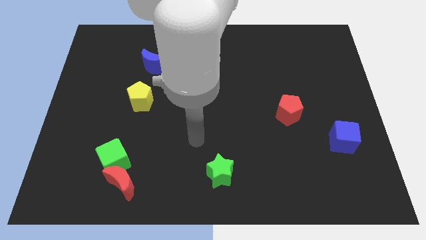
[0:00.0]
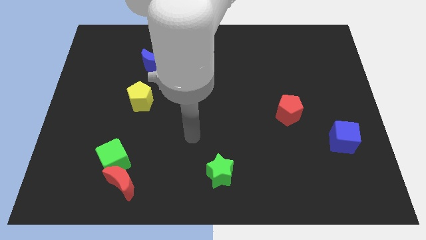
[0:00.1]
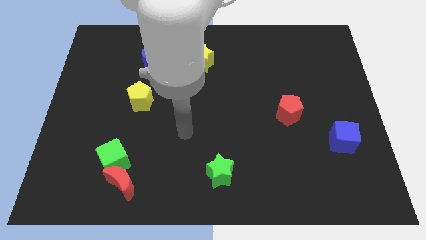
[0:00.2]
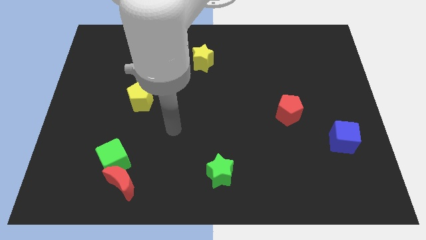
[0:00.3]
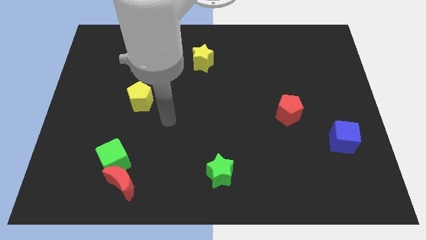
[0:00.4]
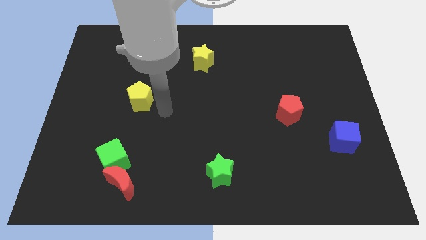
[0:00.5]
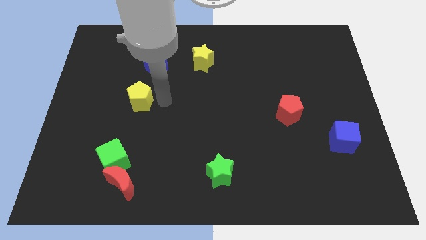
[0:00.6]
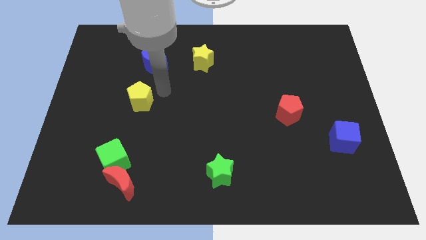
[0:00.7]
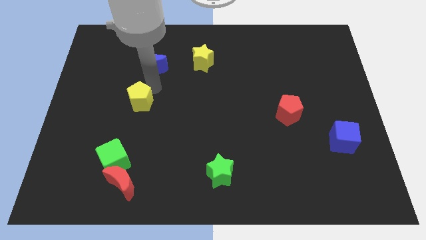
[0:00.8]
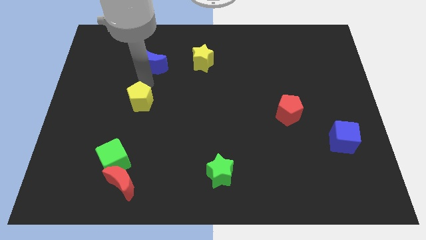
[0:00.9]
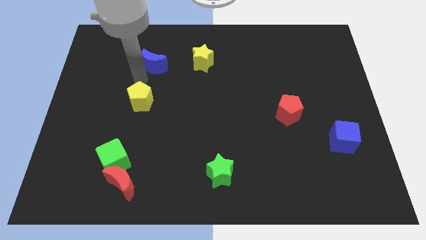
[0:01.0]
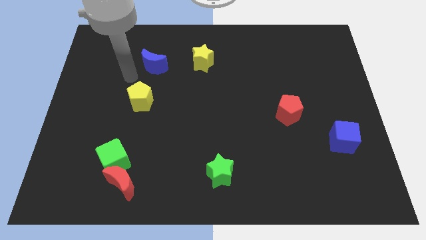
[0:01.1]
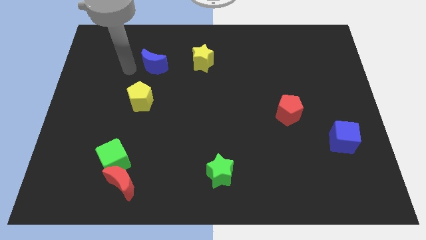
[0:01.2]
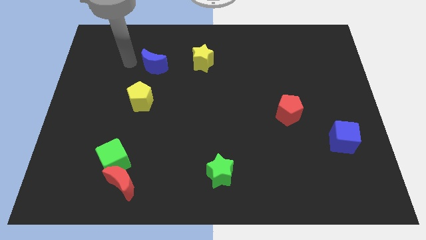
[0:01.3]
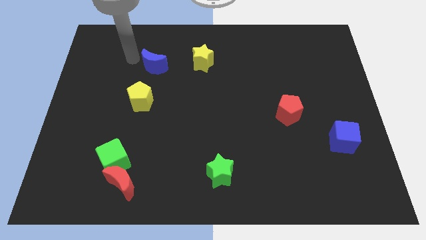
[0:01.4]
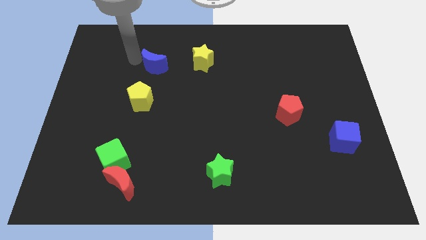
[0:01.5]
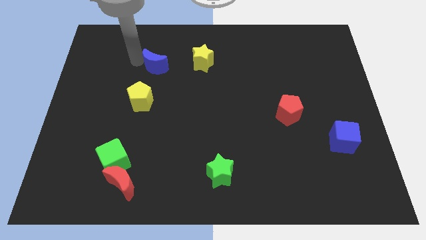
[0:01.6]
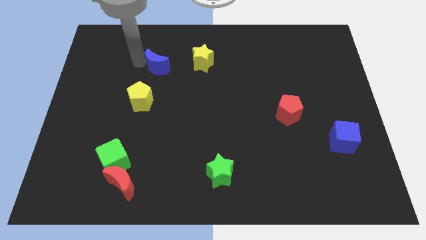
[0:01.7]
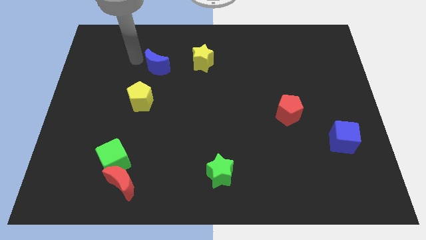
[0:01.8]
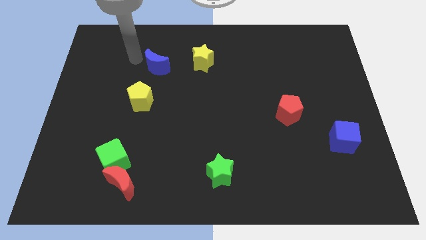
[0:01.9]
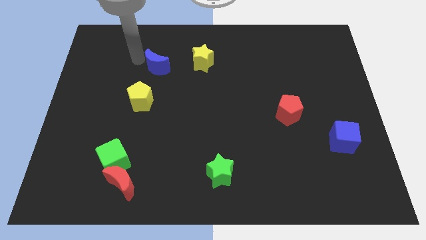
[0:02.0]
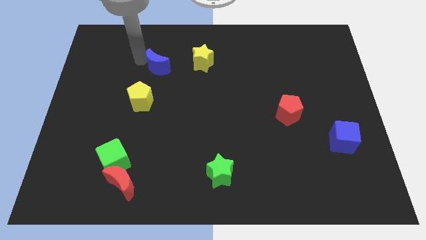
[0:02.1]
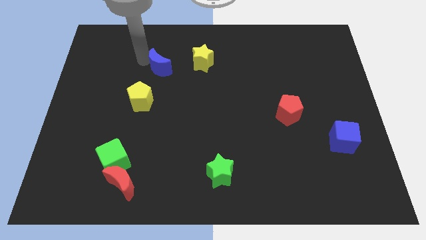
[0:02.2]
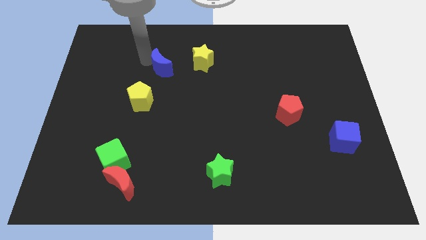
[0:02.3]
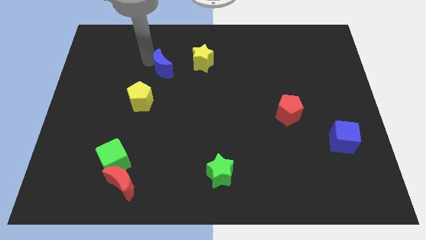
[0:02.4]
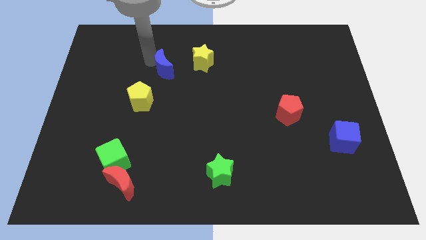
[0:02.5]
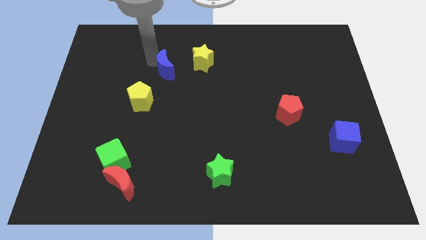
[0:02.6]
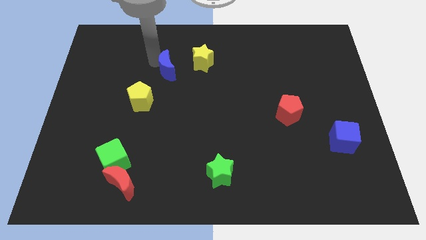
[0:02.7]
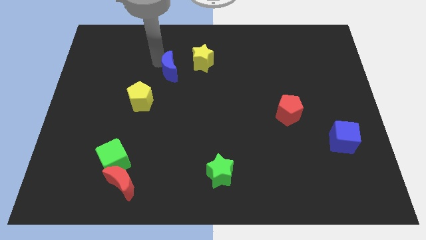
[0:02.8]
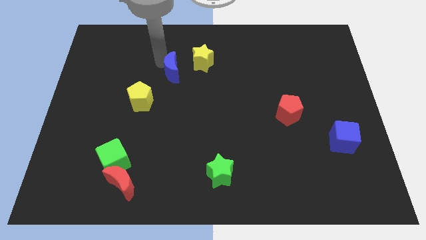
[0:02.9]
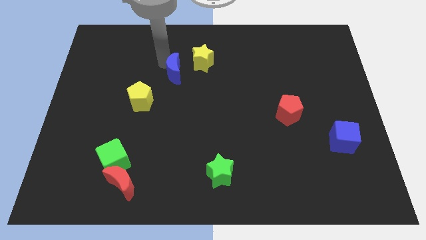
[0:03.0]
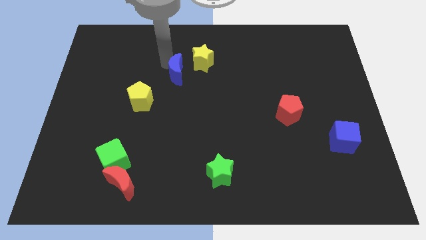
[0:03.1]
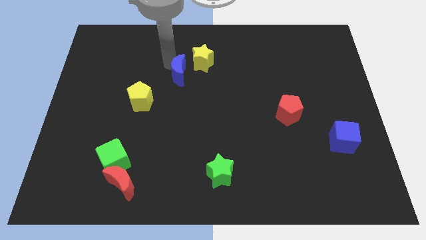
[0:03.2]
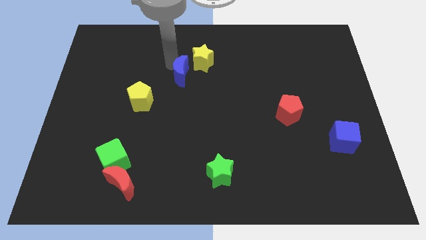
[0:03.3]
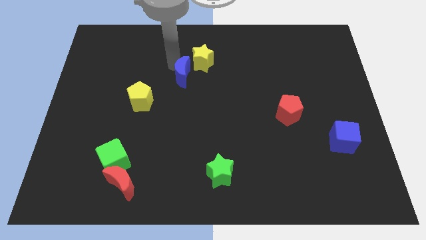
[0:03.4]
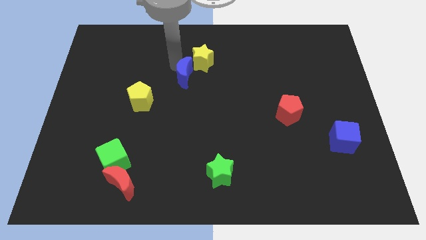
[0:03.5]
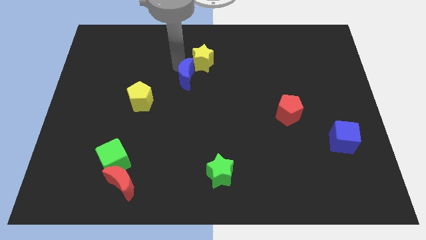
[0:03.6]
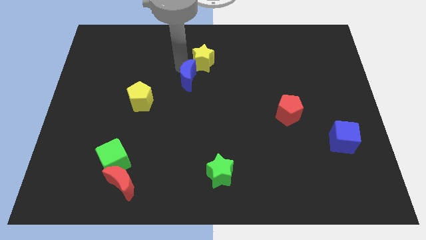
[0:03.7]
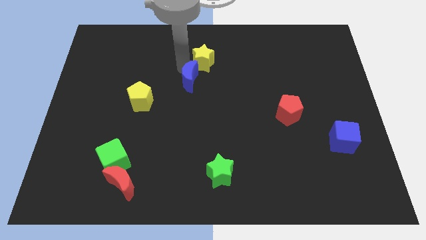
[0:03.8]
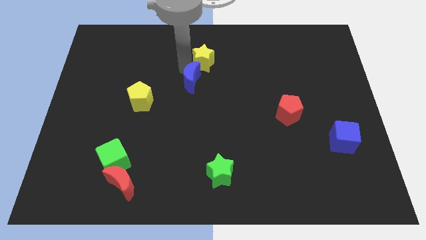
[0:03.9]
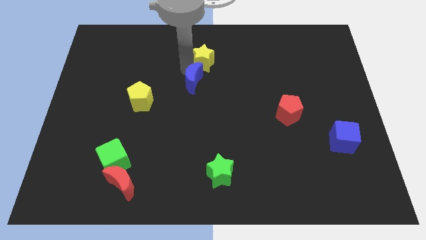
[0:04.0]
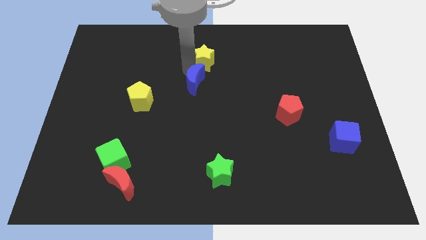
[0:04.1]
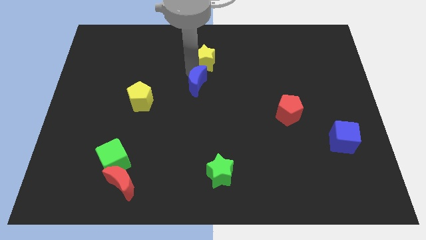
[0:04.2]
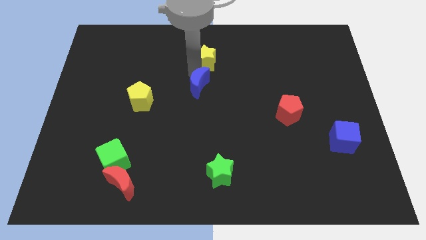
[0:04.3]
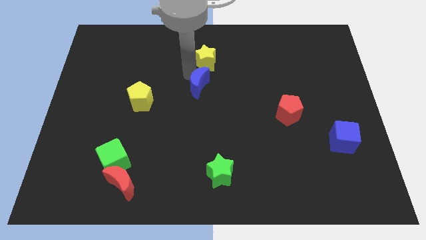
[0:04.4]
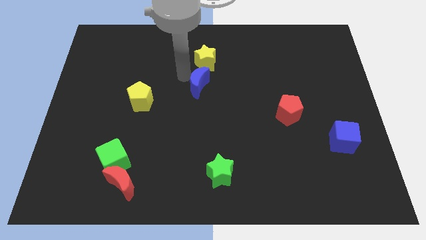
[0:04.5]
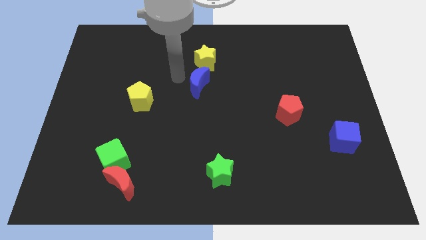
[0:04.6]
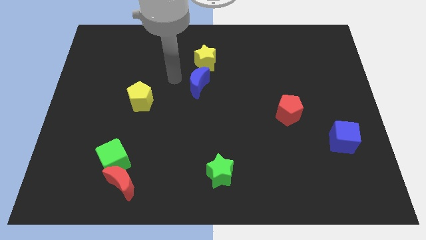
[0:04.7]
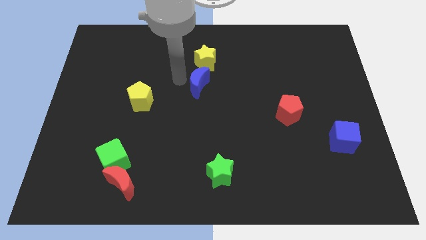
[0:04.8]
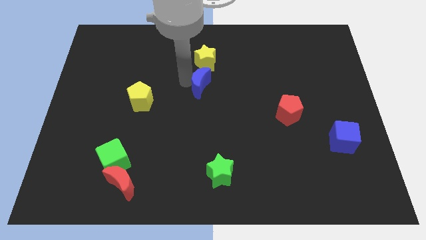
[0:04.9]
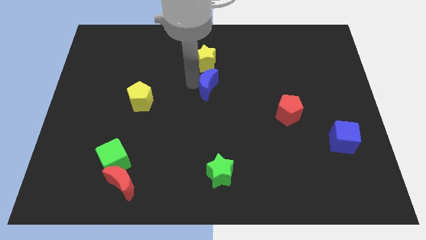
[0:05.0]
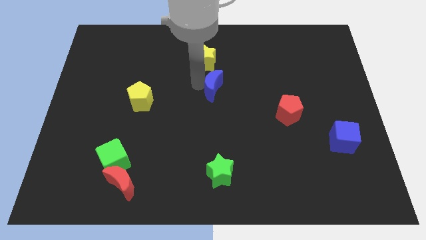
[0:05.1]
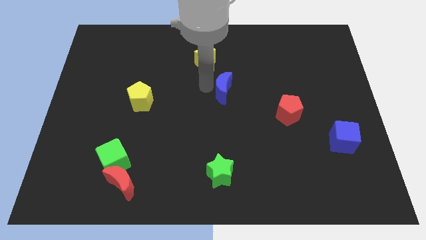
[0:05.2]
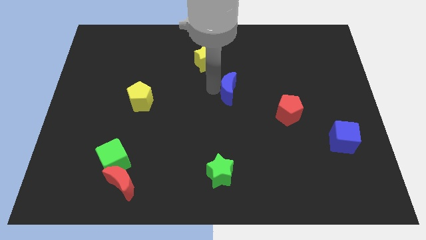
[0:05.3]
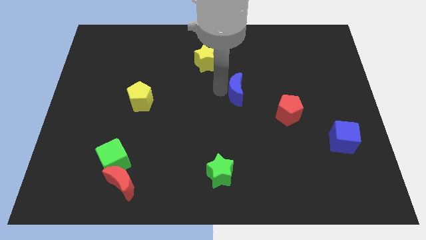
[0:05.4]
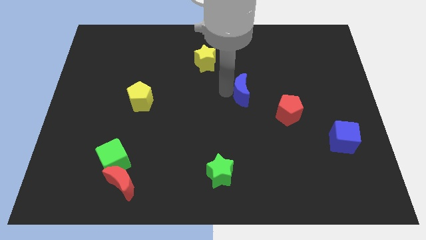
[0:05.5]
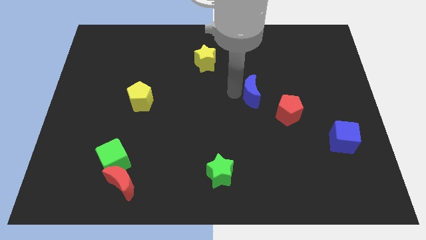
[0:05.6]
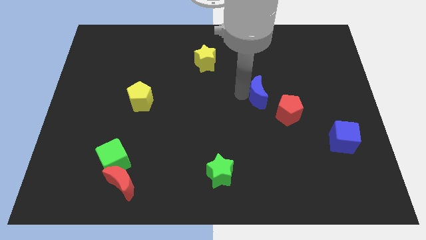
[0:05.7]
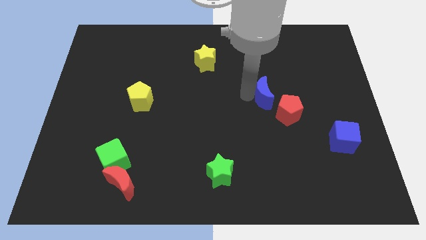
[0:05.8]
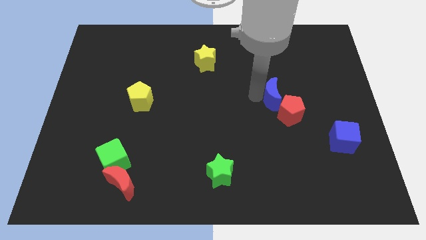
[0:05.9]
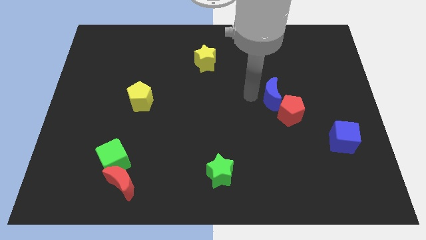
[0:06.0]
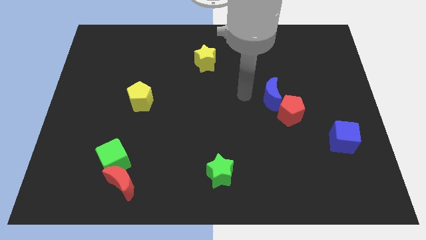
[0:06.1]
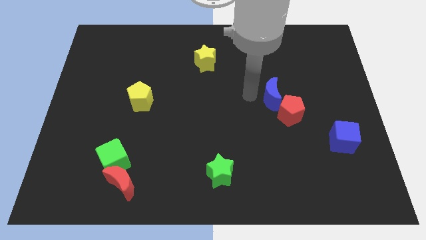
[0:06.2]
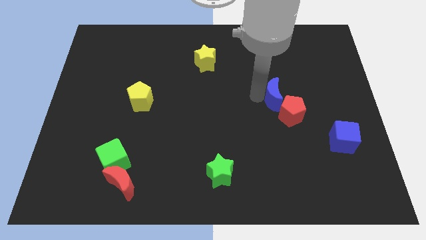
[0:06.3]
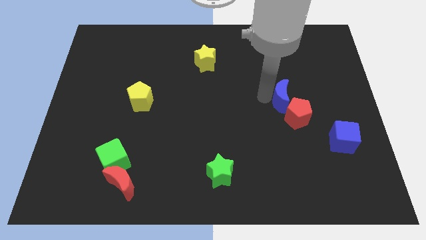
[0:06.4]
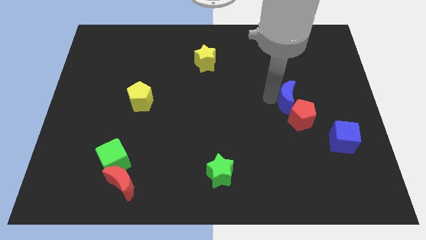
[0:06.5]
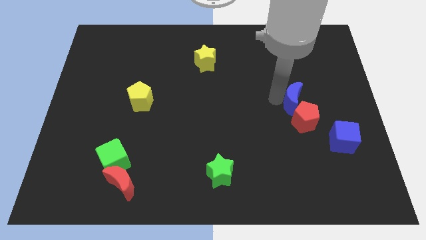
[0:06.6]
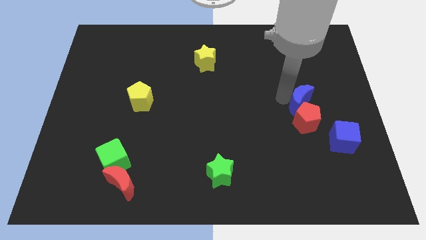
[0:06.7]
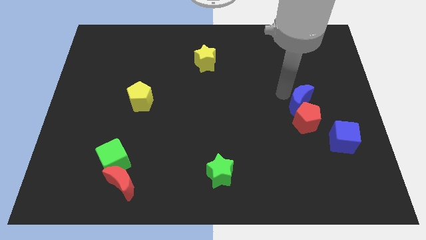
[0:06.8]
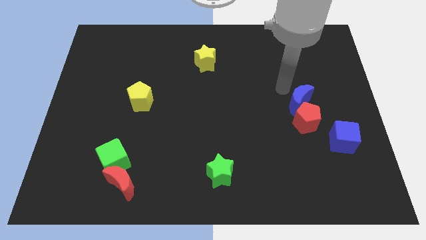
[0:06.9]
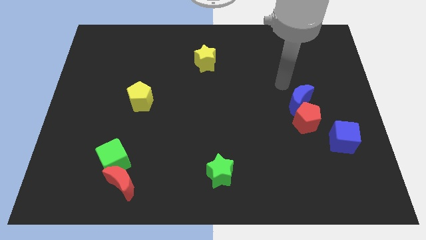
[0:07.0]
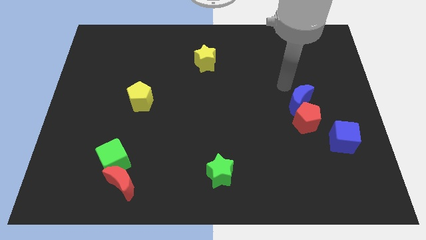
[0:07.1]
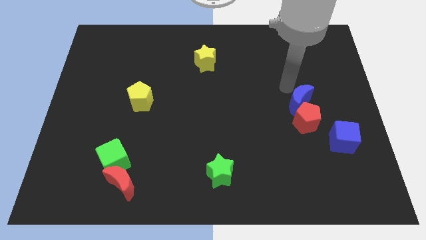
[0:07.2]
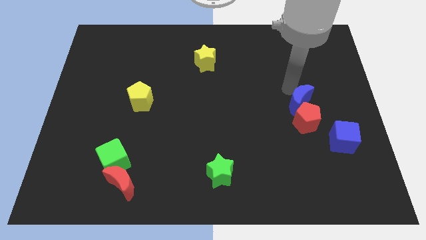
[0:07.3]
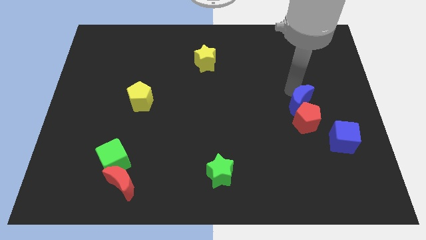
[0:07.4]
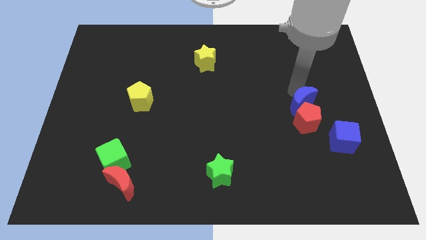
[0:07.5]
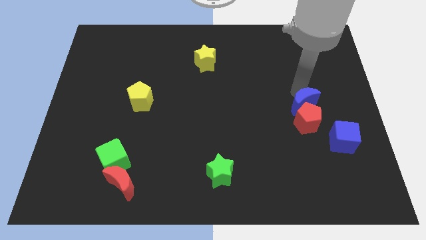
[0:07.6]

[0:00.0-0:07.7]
slide the blue moon diagonally up and to the left of the blue cube

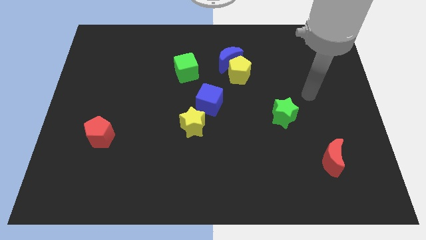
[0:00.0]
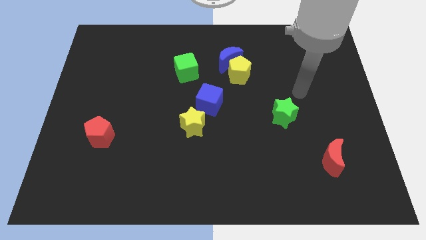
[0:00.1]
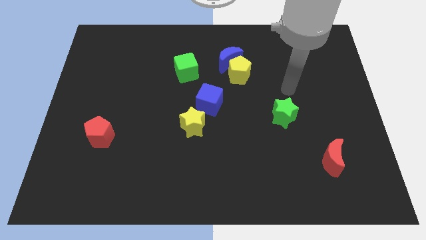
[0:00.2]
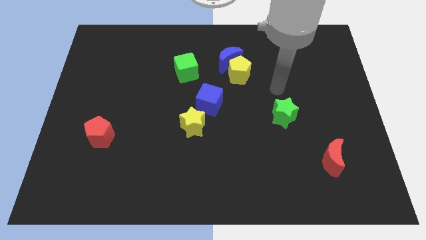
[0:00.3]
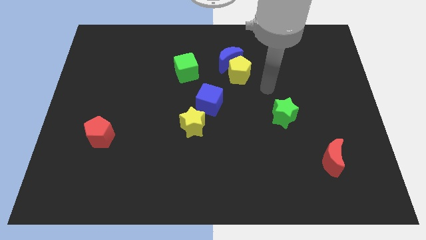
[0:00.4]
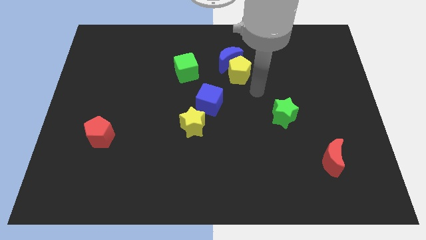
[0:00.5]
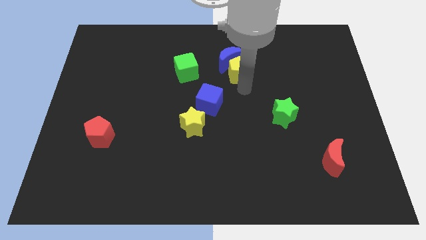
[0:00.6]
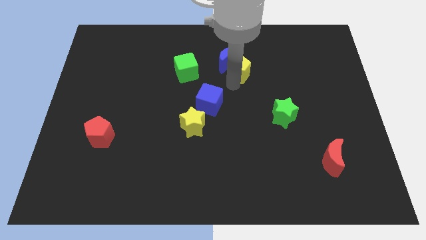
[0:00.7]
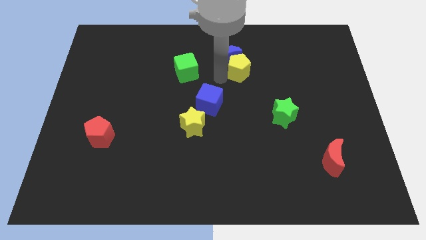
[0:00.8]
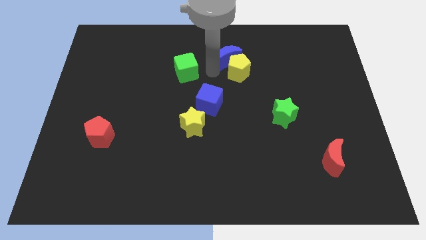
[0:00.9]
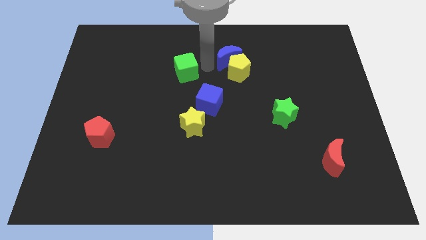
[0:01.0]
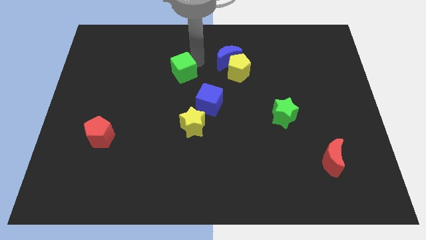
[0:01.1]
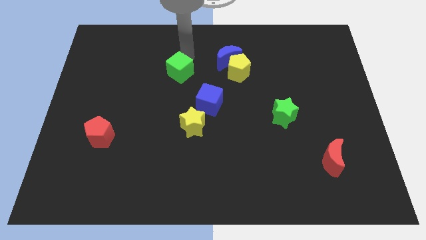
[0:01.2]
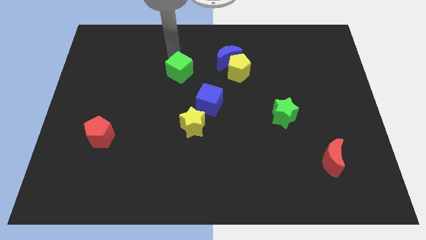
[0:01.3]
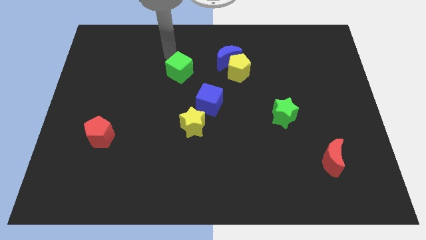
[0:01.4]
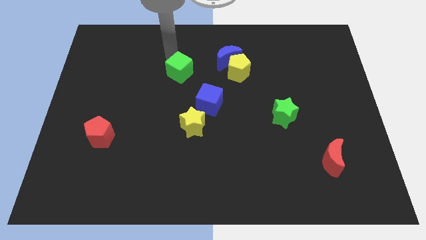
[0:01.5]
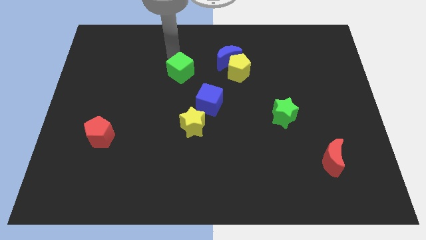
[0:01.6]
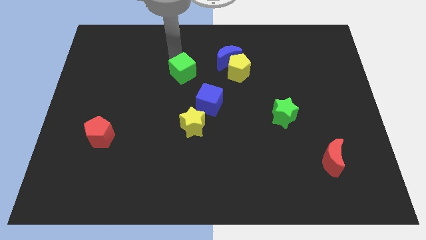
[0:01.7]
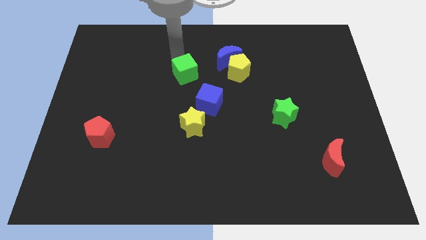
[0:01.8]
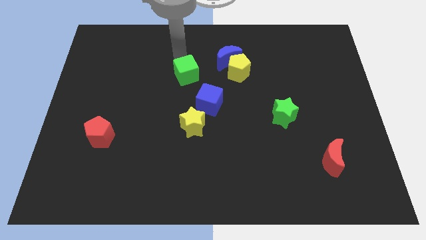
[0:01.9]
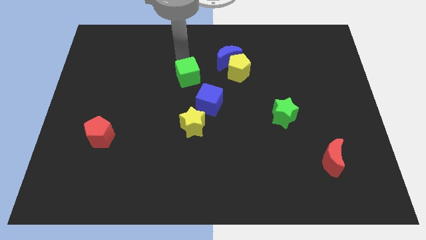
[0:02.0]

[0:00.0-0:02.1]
move the green cube above the yellow star
